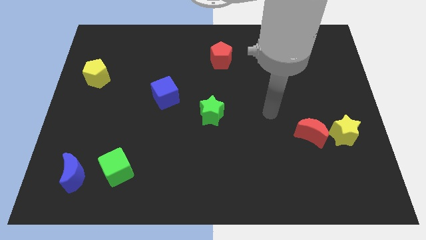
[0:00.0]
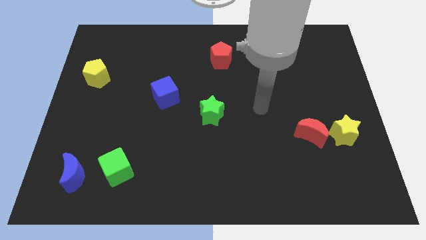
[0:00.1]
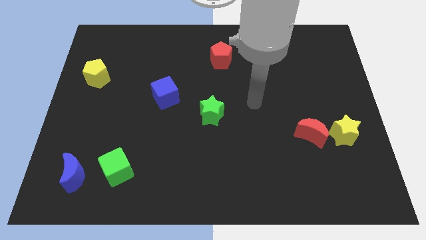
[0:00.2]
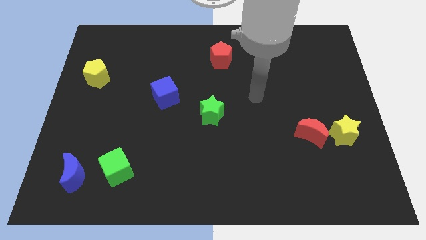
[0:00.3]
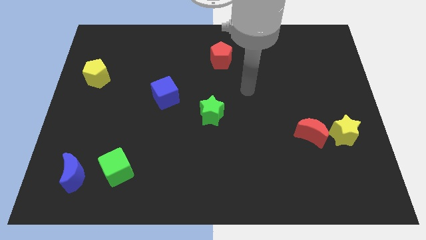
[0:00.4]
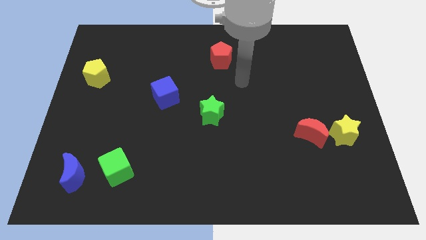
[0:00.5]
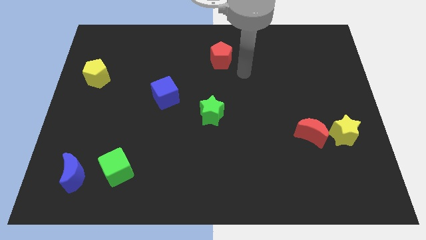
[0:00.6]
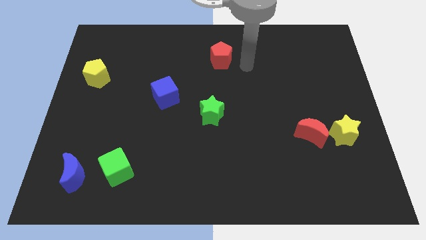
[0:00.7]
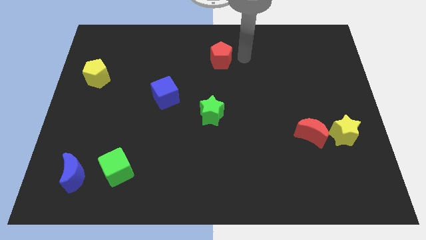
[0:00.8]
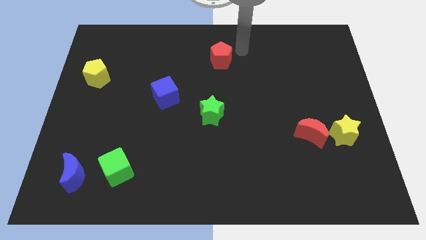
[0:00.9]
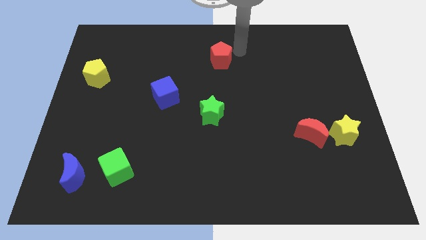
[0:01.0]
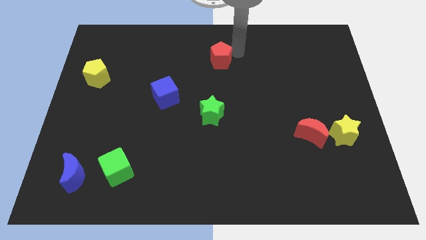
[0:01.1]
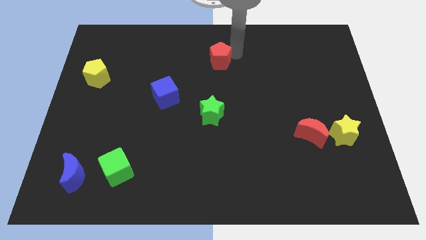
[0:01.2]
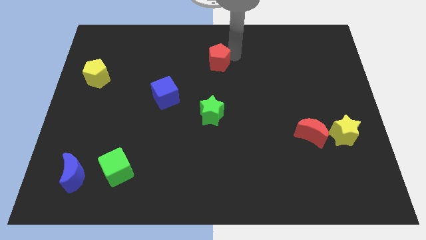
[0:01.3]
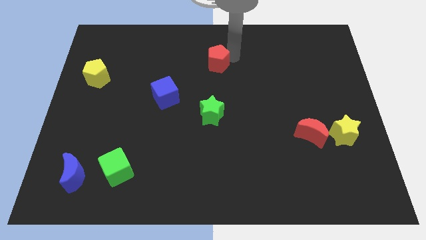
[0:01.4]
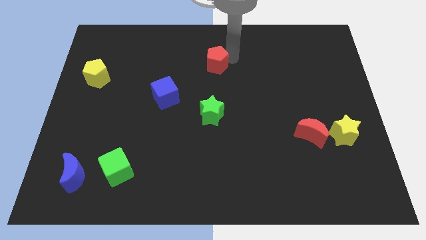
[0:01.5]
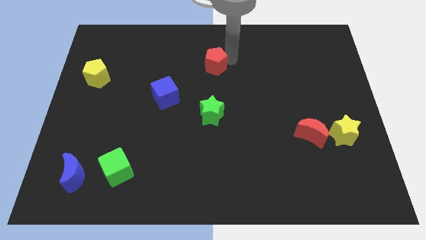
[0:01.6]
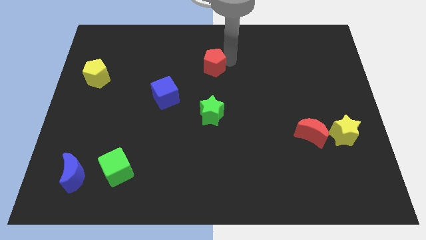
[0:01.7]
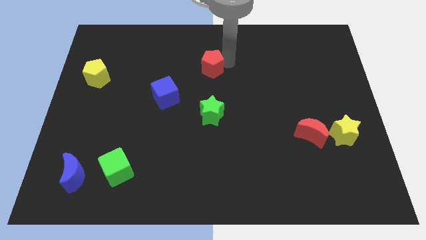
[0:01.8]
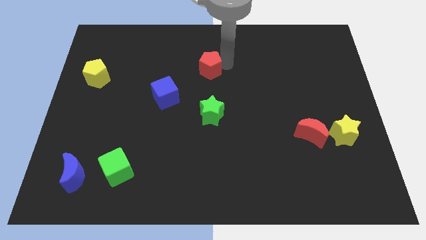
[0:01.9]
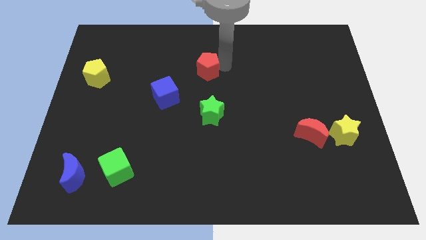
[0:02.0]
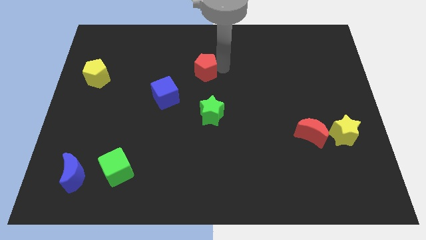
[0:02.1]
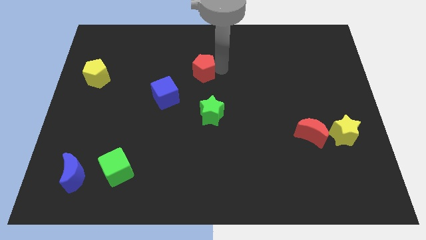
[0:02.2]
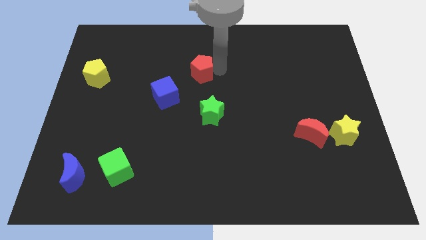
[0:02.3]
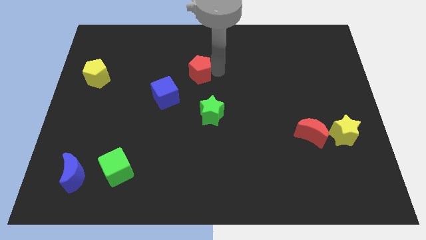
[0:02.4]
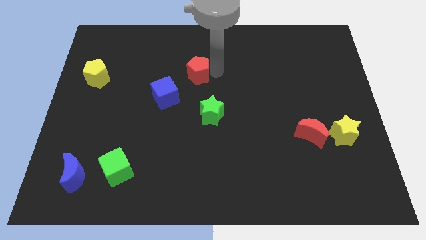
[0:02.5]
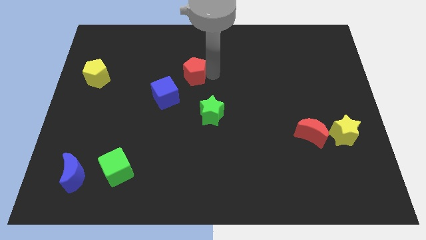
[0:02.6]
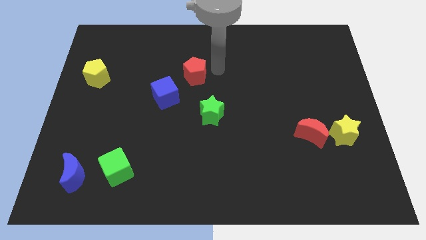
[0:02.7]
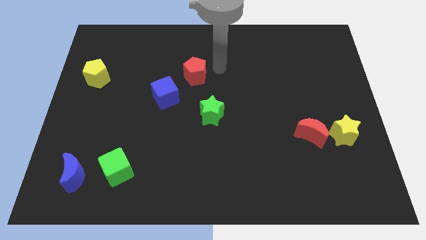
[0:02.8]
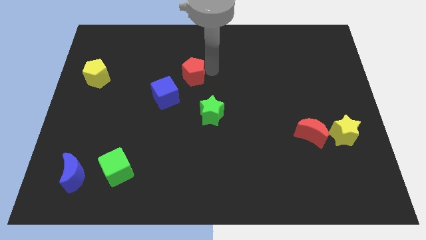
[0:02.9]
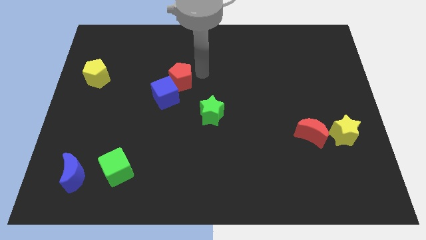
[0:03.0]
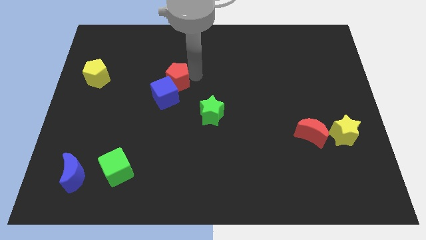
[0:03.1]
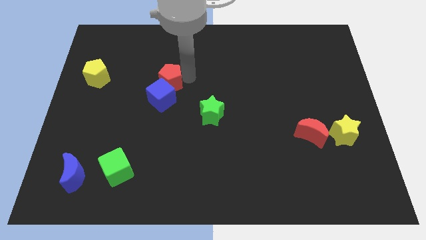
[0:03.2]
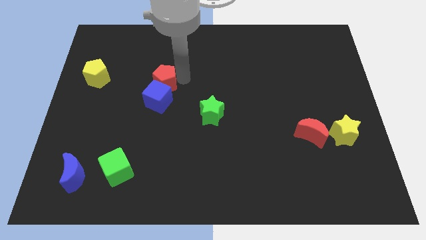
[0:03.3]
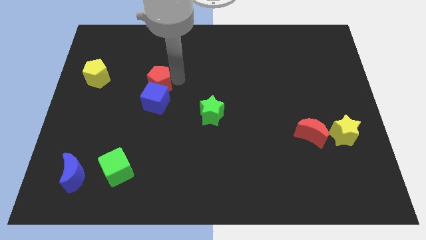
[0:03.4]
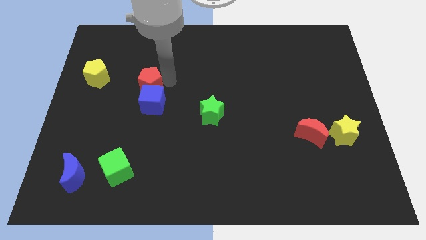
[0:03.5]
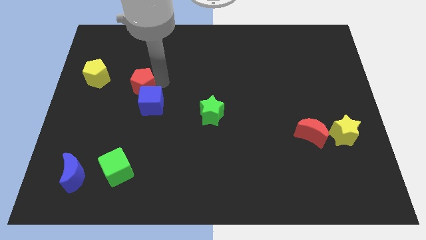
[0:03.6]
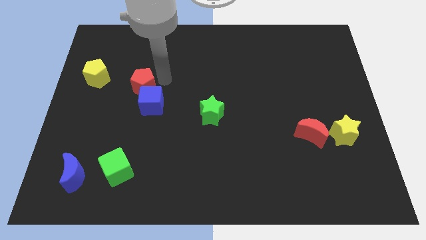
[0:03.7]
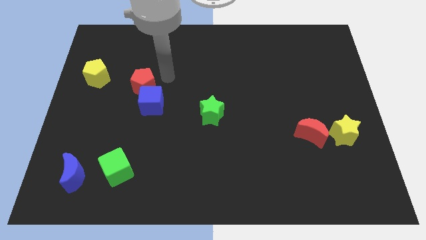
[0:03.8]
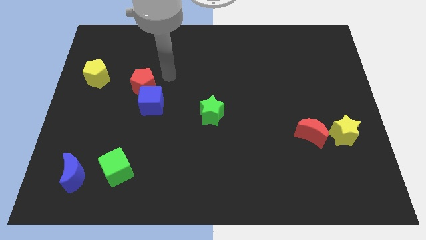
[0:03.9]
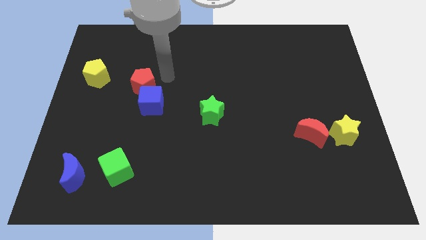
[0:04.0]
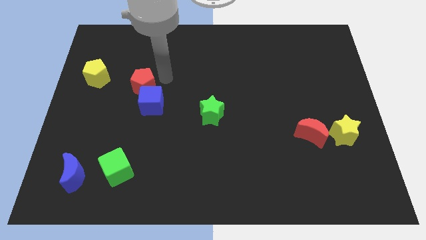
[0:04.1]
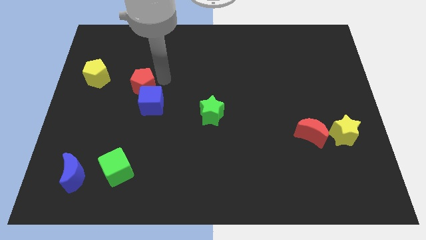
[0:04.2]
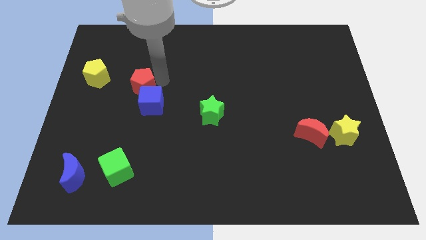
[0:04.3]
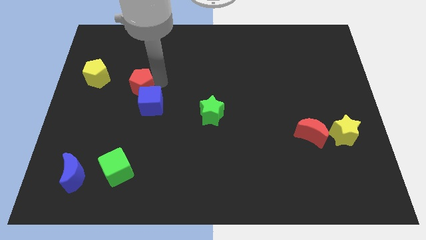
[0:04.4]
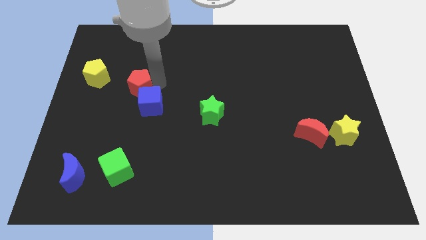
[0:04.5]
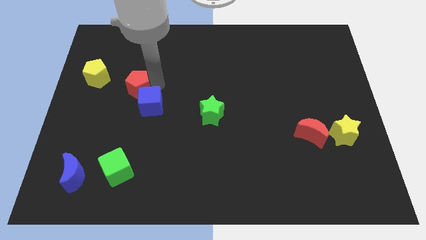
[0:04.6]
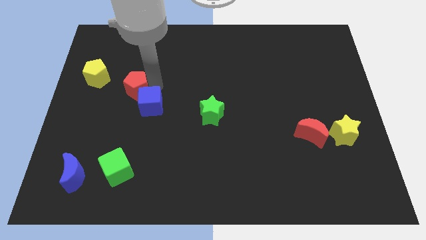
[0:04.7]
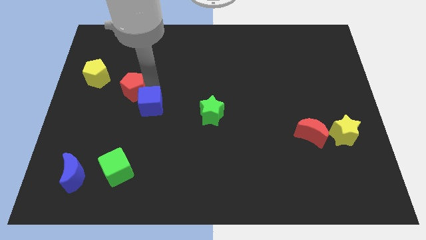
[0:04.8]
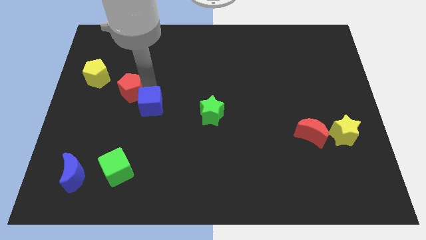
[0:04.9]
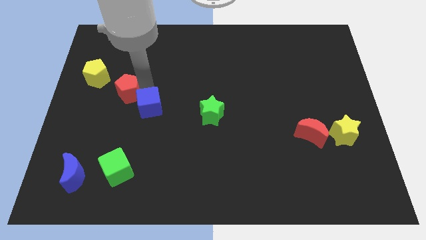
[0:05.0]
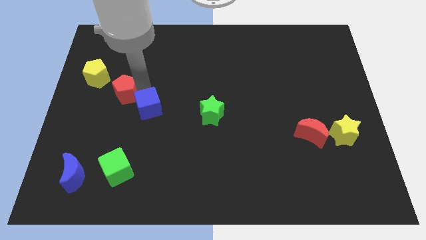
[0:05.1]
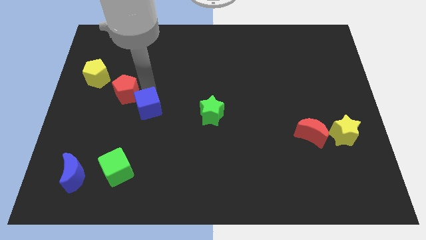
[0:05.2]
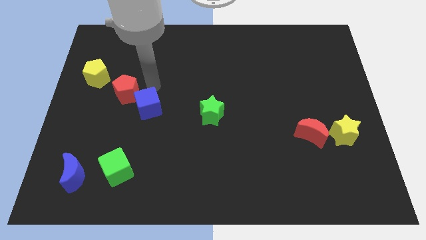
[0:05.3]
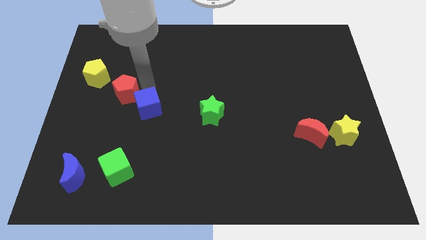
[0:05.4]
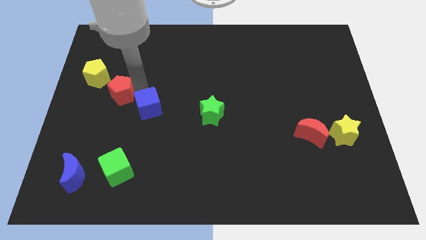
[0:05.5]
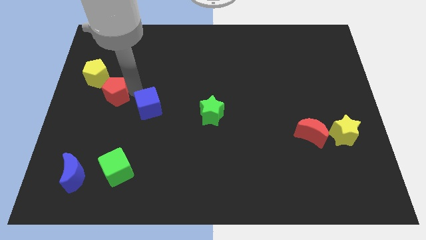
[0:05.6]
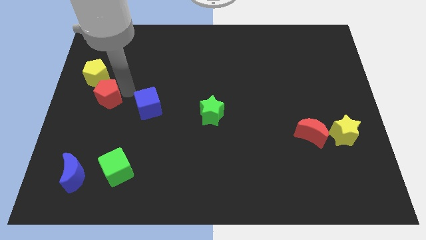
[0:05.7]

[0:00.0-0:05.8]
put the red pentagon to the bottom of the yellow pentagon

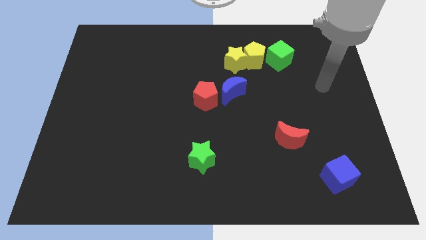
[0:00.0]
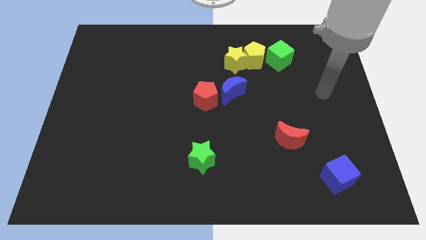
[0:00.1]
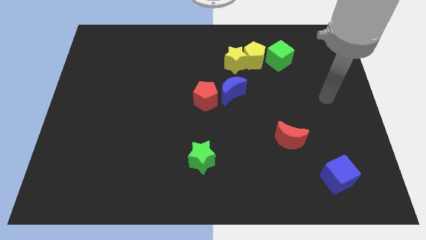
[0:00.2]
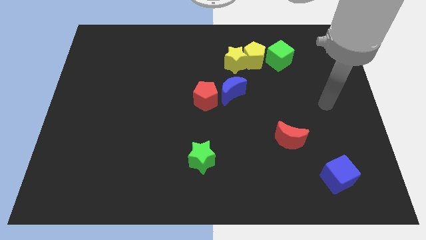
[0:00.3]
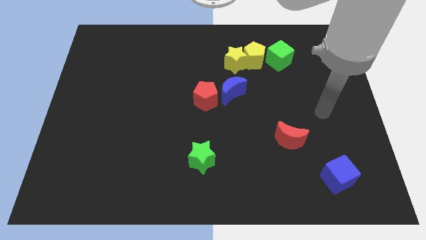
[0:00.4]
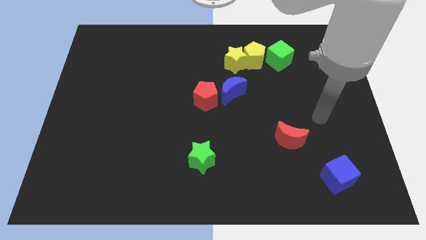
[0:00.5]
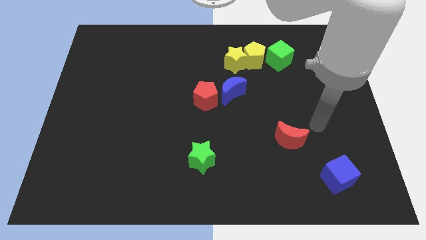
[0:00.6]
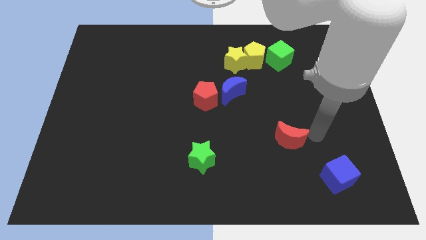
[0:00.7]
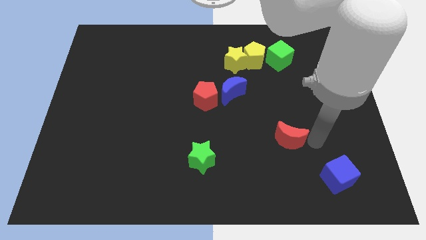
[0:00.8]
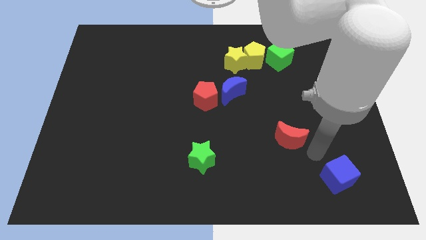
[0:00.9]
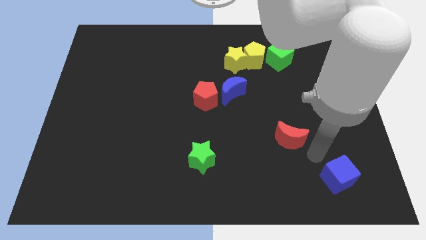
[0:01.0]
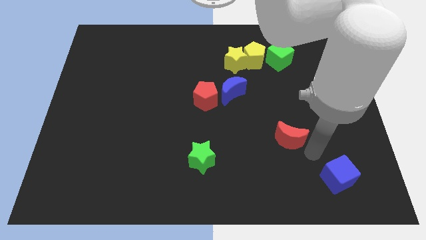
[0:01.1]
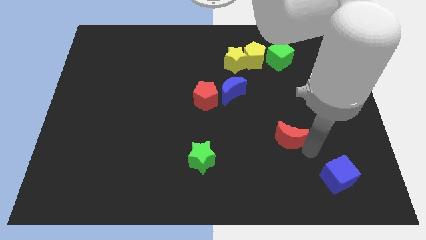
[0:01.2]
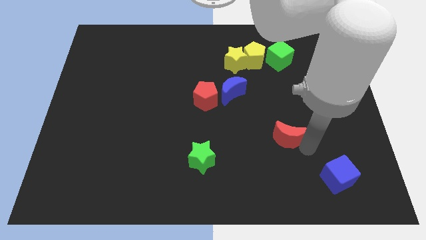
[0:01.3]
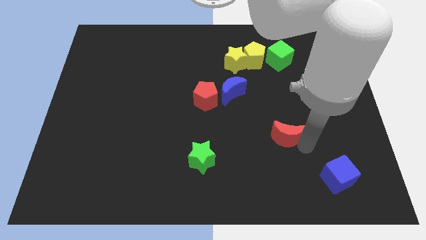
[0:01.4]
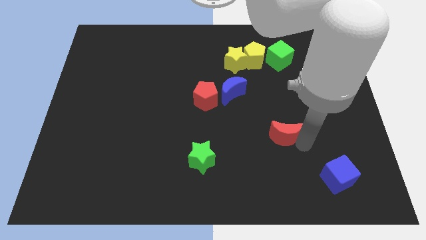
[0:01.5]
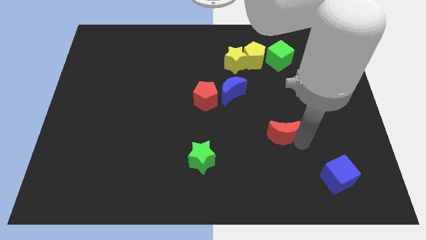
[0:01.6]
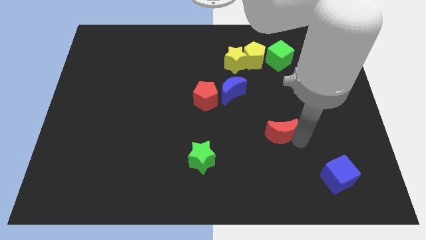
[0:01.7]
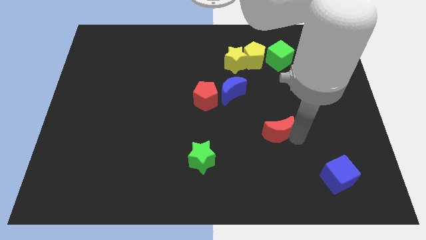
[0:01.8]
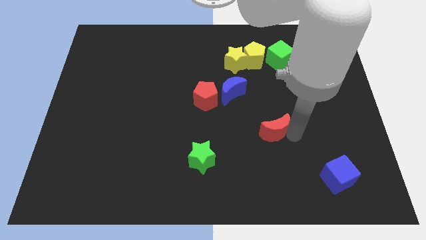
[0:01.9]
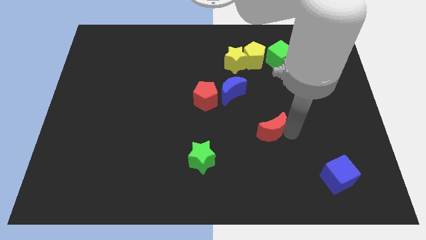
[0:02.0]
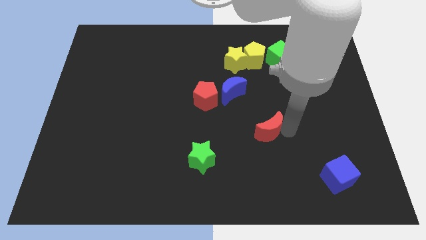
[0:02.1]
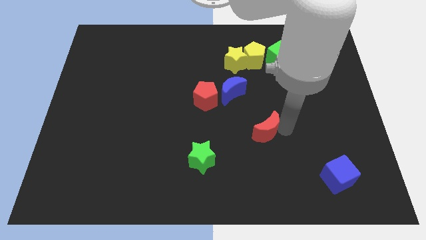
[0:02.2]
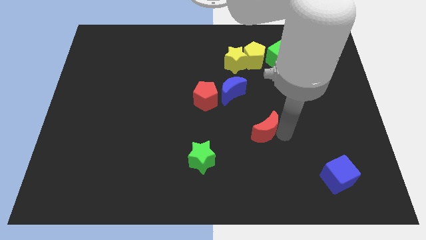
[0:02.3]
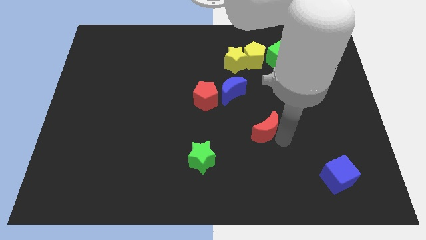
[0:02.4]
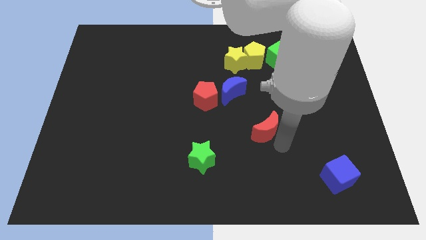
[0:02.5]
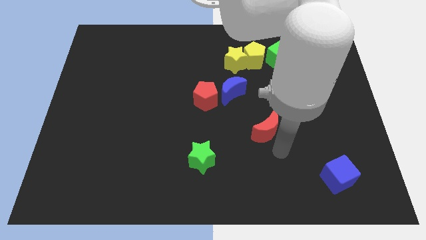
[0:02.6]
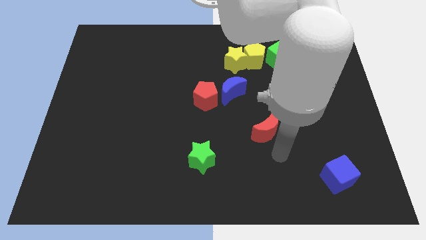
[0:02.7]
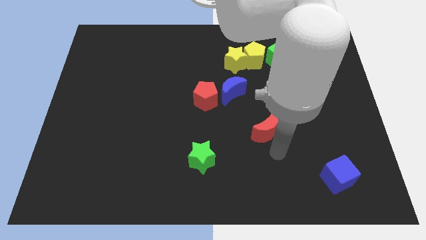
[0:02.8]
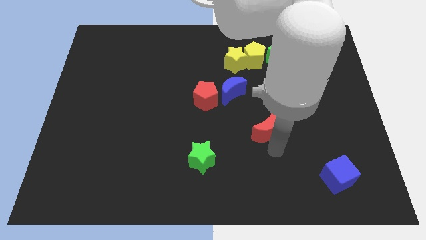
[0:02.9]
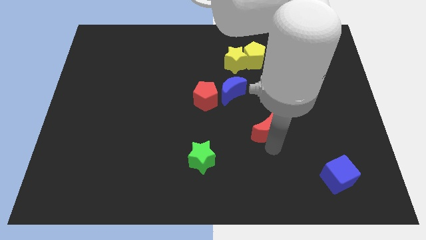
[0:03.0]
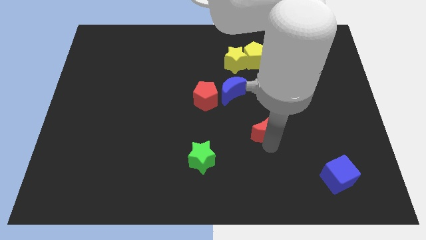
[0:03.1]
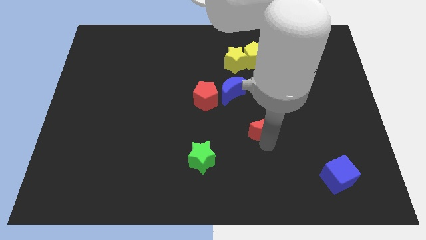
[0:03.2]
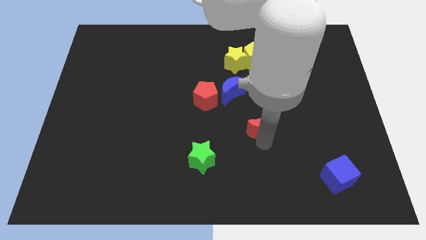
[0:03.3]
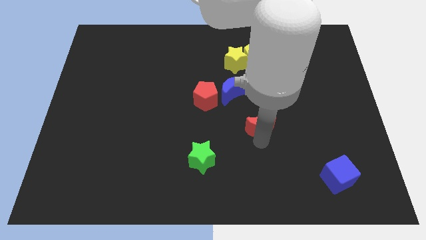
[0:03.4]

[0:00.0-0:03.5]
move the red moon diagonally down and to the right of the blue moon
